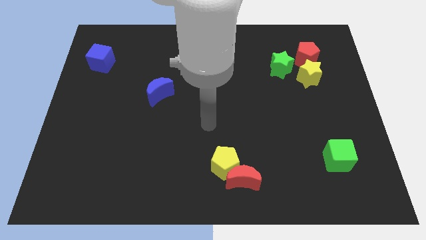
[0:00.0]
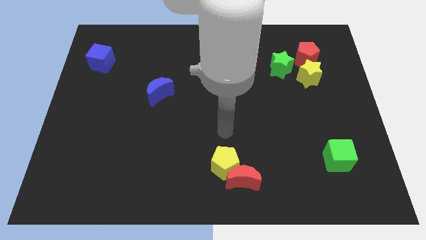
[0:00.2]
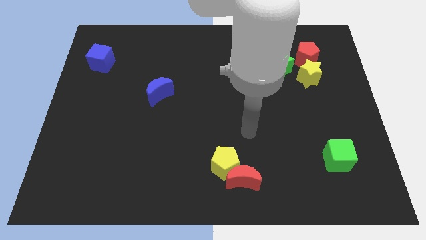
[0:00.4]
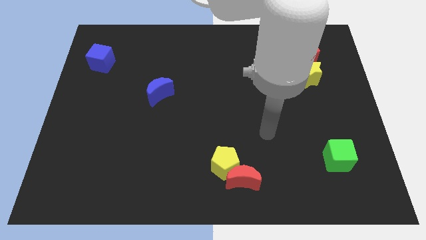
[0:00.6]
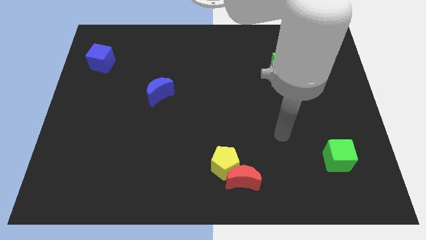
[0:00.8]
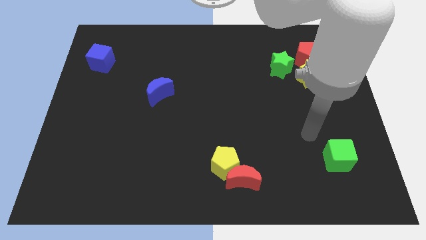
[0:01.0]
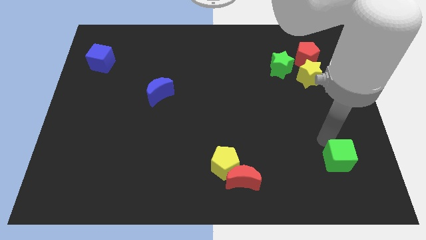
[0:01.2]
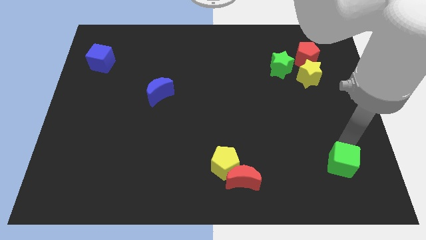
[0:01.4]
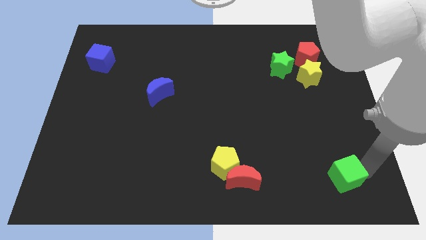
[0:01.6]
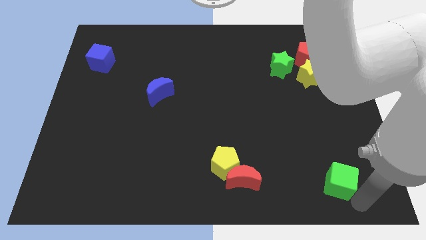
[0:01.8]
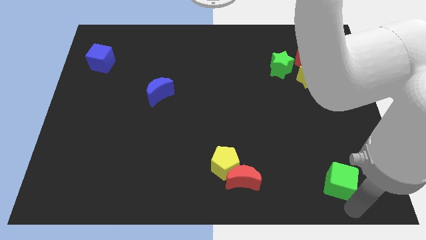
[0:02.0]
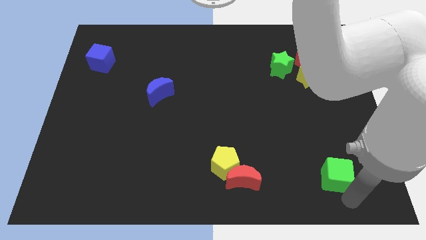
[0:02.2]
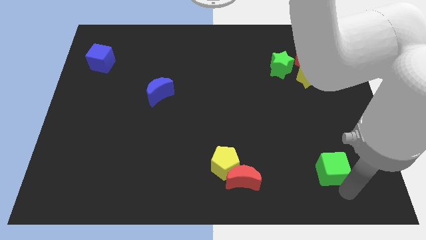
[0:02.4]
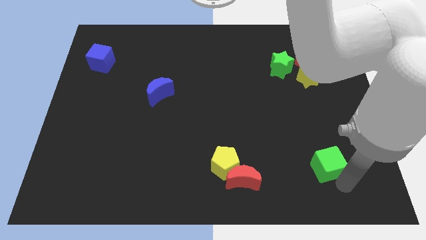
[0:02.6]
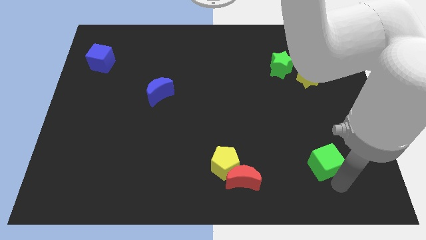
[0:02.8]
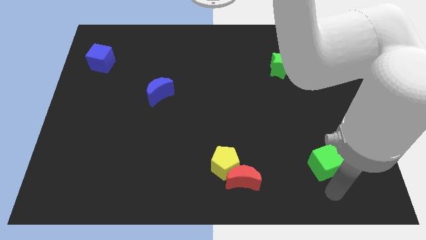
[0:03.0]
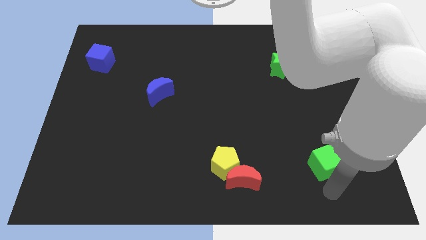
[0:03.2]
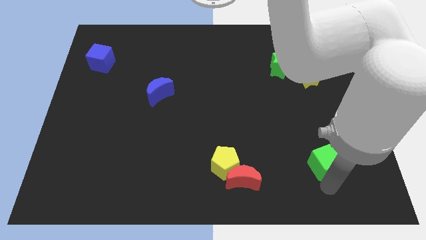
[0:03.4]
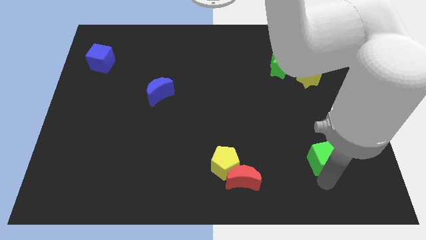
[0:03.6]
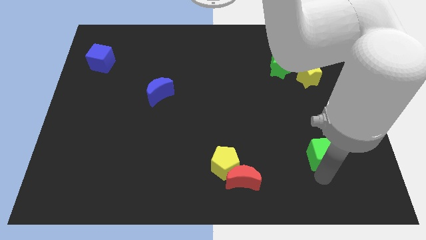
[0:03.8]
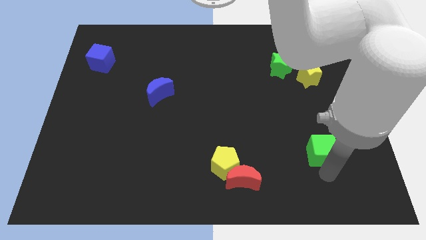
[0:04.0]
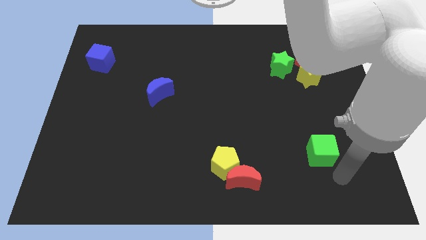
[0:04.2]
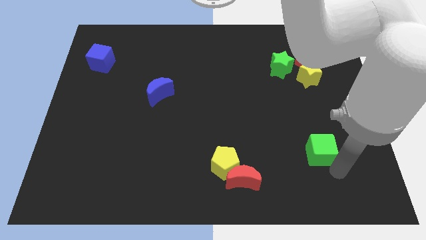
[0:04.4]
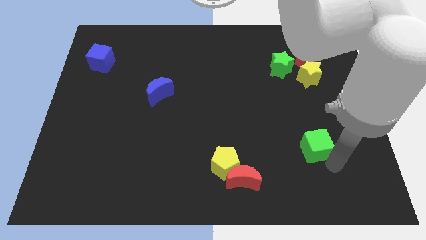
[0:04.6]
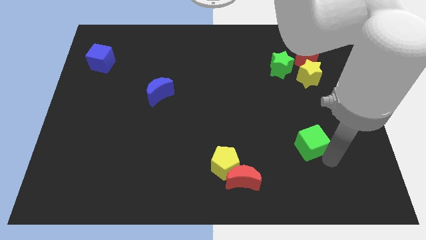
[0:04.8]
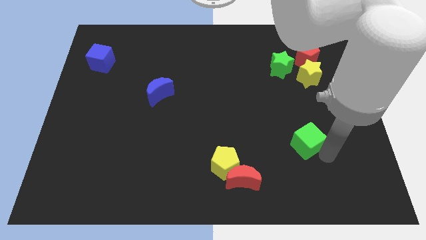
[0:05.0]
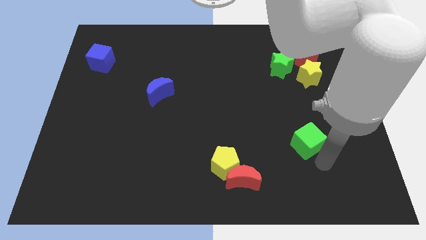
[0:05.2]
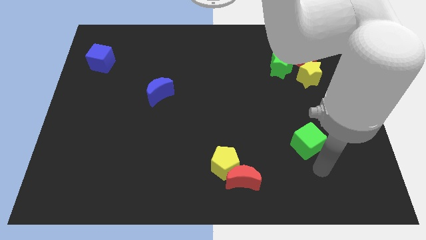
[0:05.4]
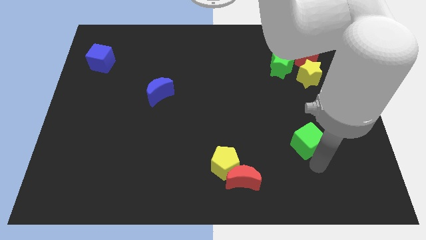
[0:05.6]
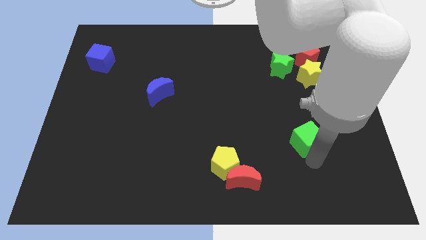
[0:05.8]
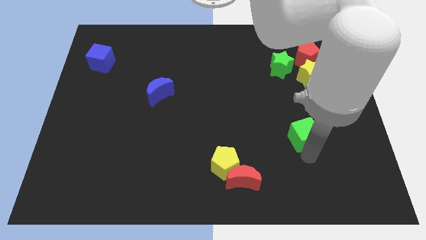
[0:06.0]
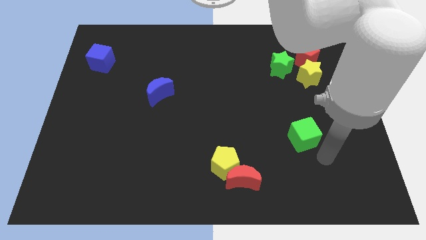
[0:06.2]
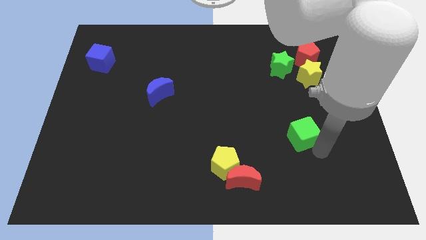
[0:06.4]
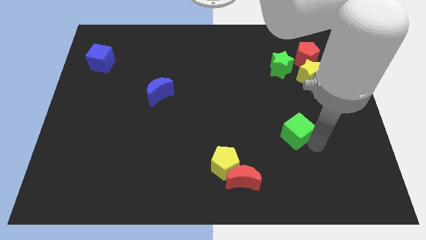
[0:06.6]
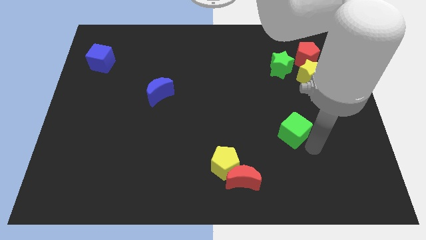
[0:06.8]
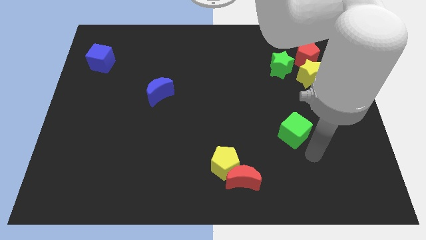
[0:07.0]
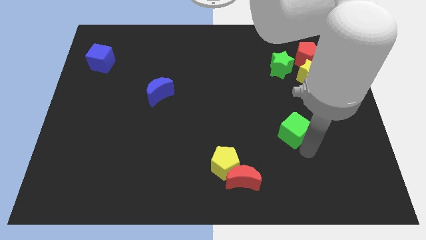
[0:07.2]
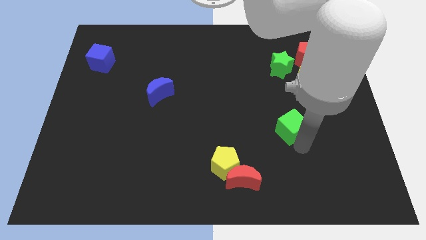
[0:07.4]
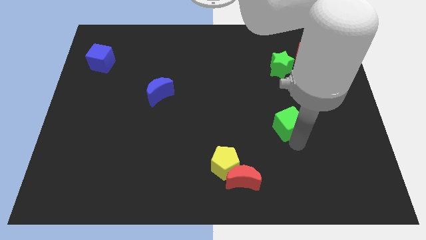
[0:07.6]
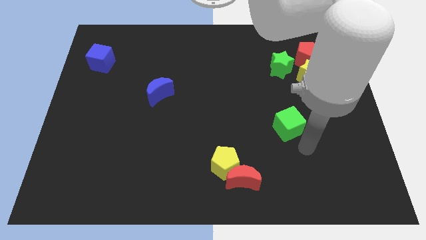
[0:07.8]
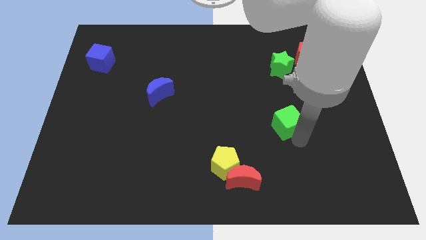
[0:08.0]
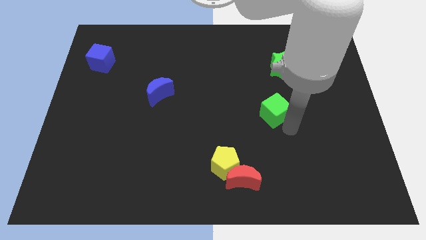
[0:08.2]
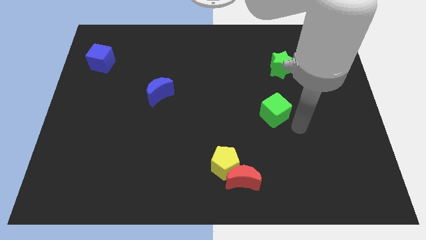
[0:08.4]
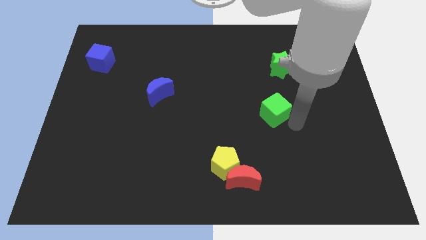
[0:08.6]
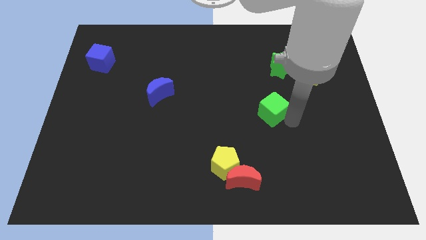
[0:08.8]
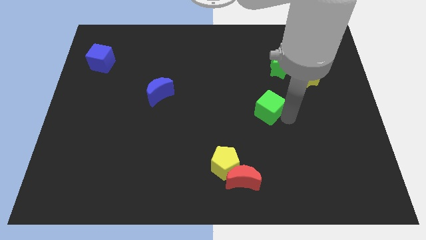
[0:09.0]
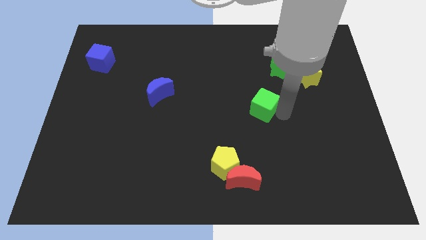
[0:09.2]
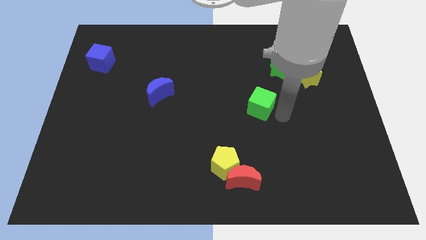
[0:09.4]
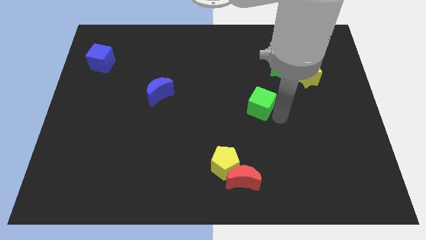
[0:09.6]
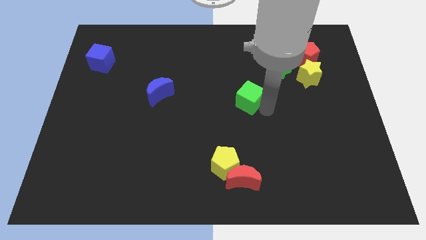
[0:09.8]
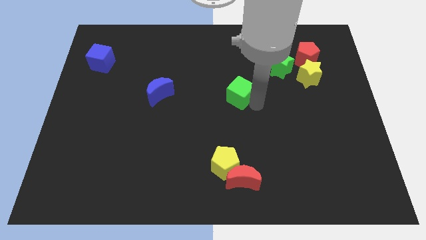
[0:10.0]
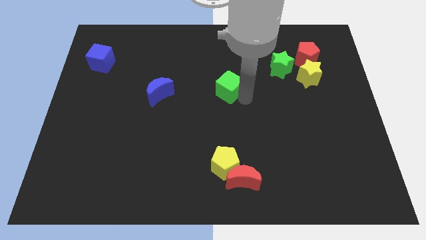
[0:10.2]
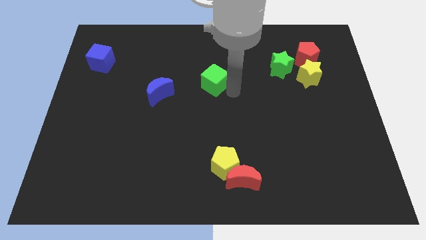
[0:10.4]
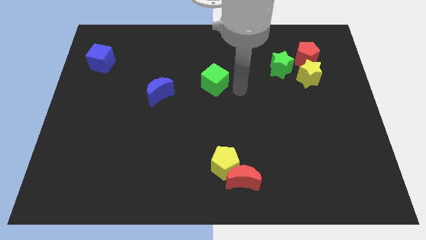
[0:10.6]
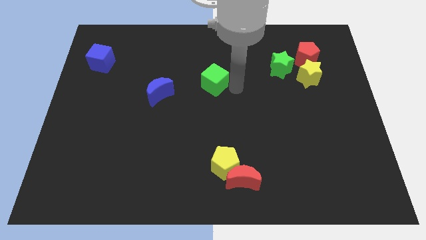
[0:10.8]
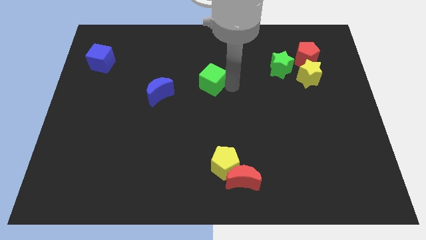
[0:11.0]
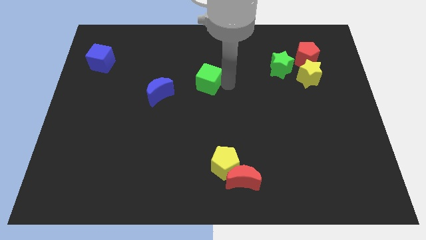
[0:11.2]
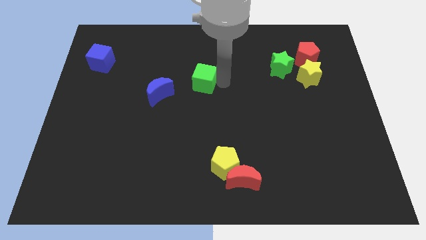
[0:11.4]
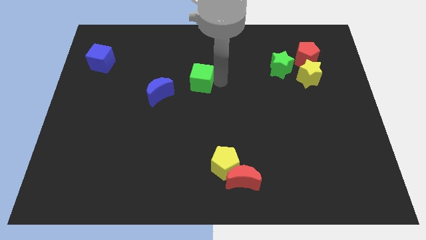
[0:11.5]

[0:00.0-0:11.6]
slide the green cube diagonally up and to the right of the blue moon

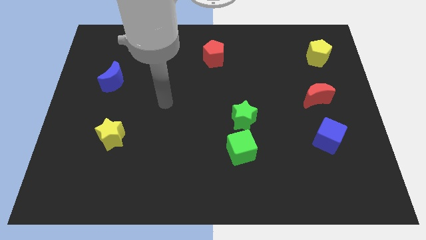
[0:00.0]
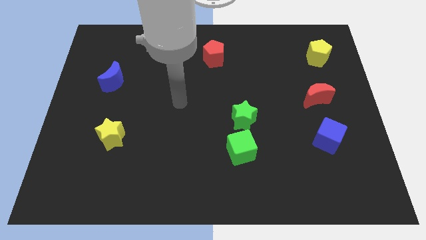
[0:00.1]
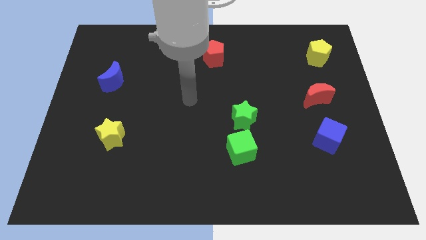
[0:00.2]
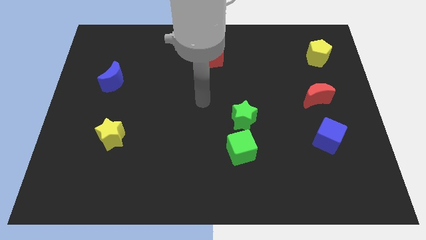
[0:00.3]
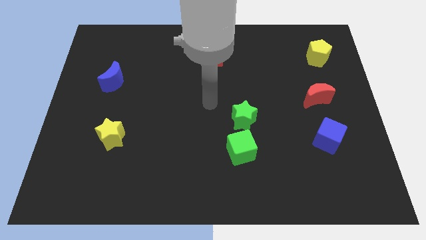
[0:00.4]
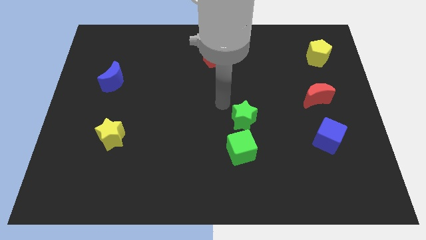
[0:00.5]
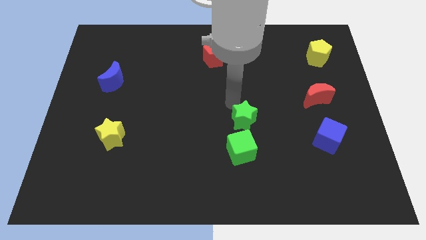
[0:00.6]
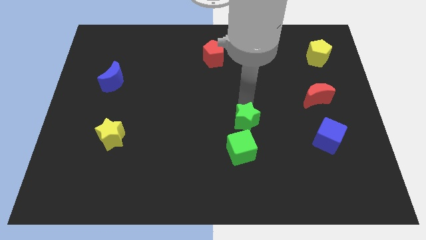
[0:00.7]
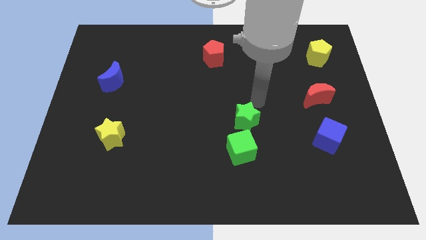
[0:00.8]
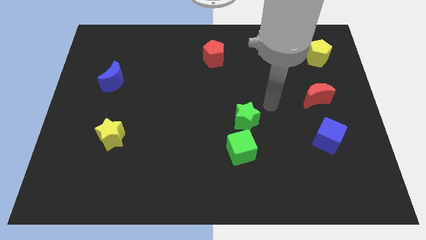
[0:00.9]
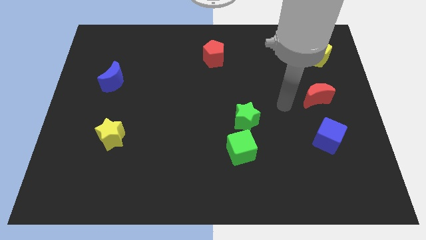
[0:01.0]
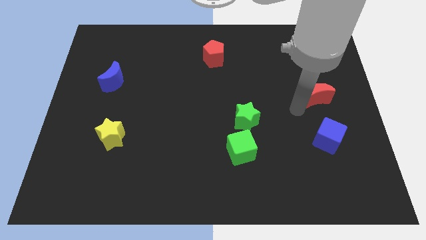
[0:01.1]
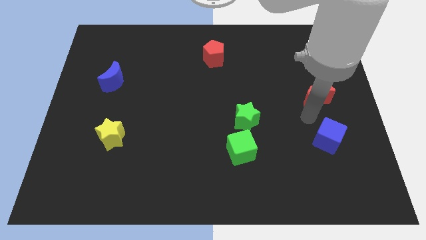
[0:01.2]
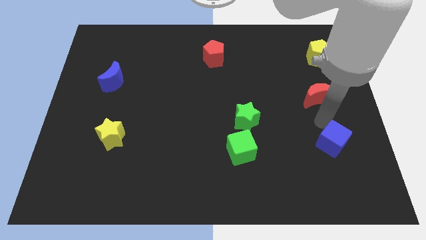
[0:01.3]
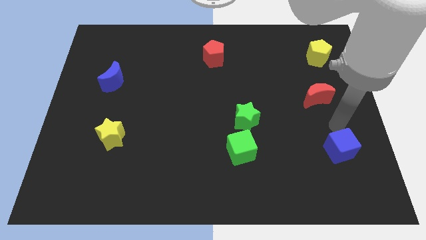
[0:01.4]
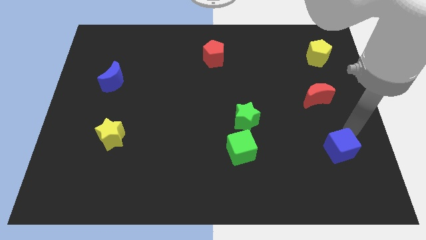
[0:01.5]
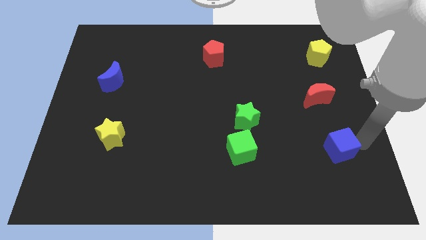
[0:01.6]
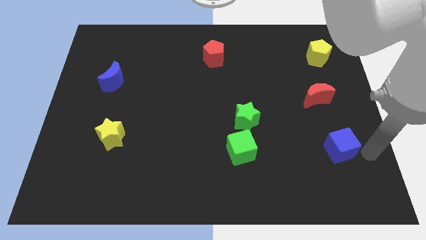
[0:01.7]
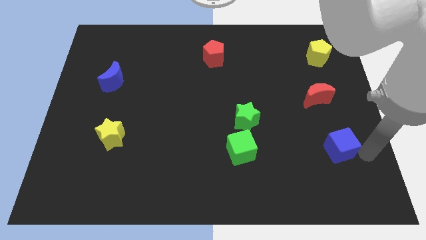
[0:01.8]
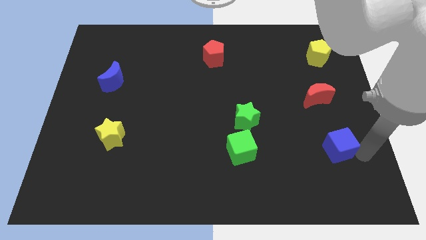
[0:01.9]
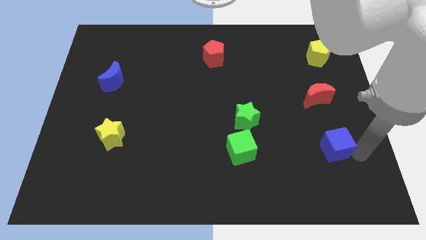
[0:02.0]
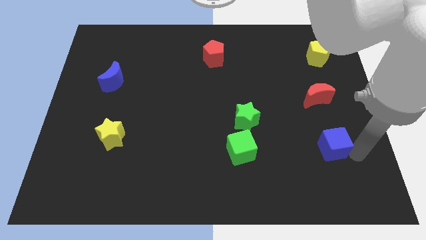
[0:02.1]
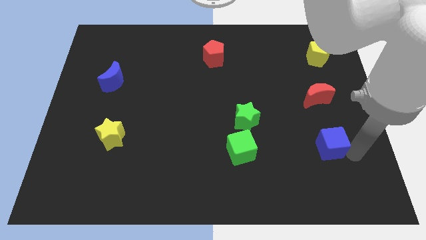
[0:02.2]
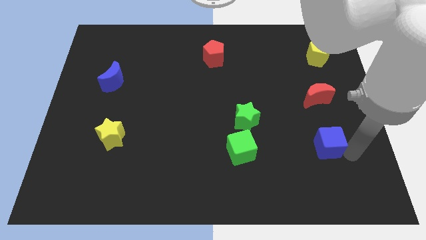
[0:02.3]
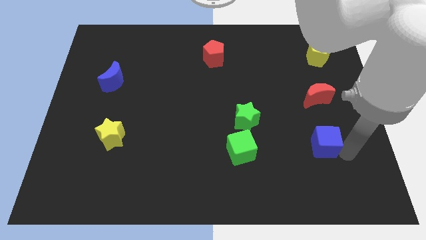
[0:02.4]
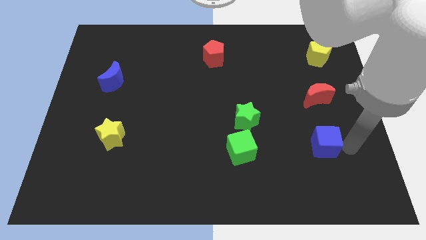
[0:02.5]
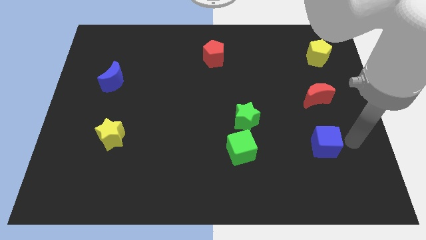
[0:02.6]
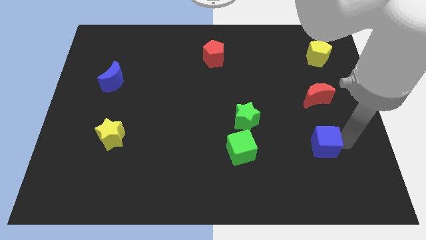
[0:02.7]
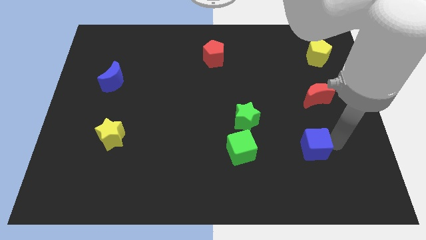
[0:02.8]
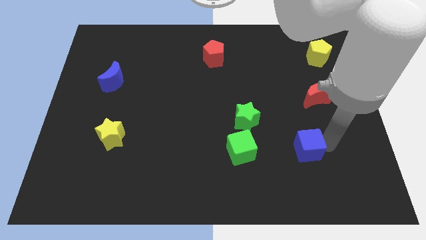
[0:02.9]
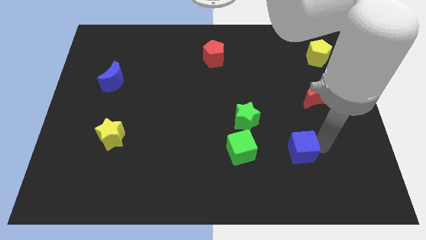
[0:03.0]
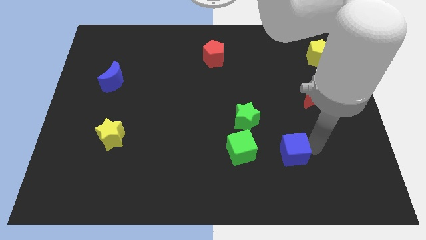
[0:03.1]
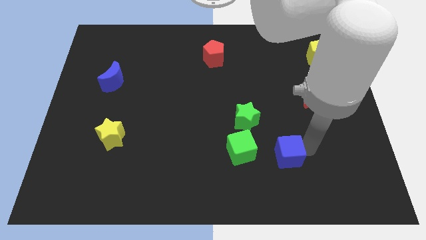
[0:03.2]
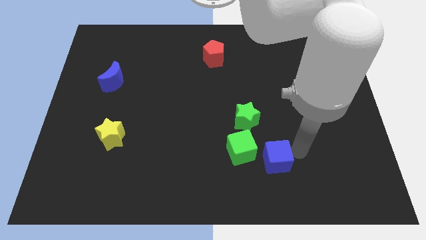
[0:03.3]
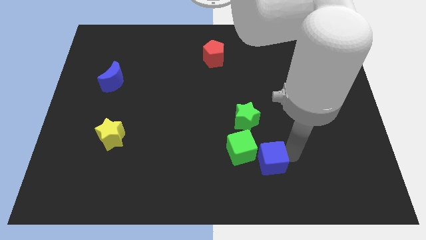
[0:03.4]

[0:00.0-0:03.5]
push the blue cube to the bottom of the green star
